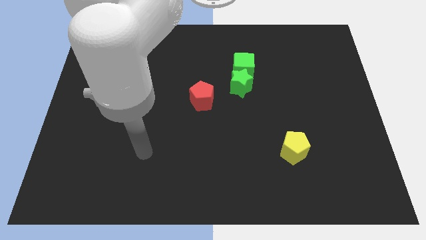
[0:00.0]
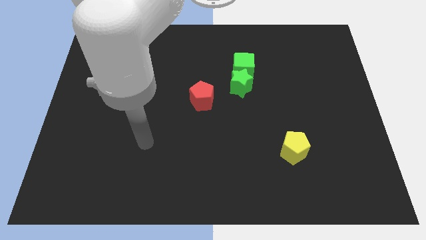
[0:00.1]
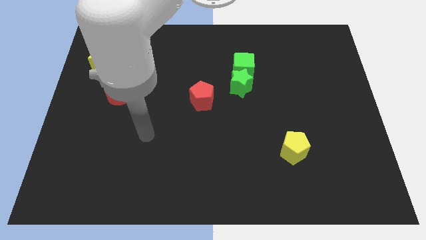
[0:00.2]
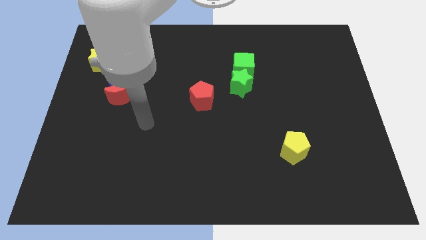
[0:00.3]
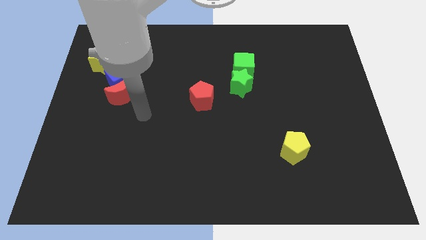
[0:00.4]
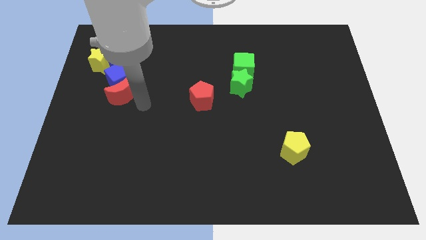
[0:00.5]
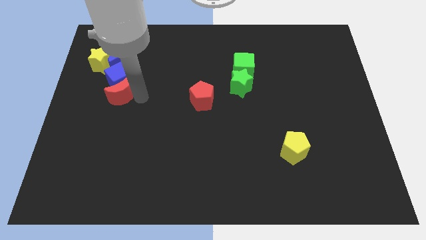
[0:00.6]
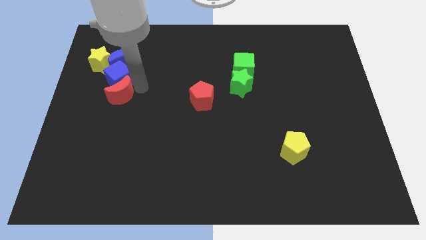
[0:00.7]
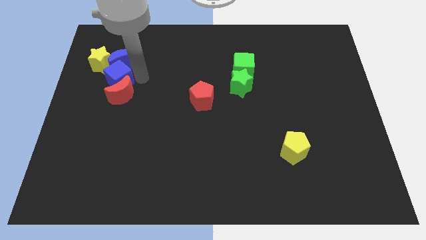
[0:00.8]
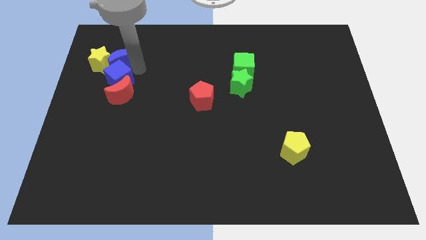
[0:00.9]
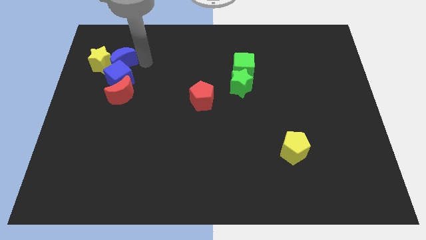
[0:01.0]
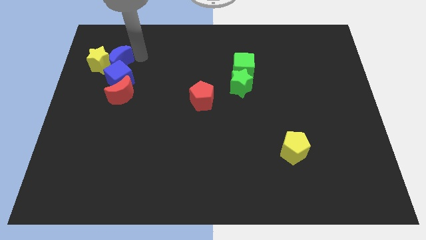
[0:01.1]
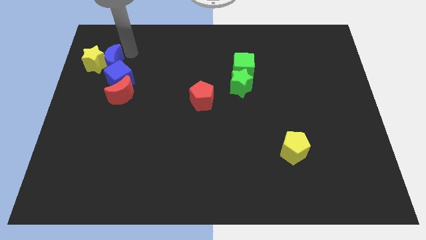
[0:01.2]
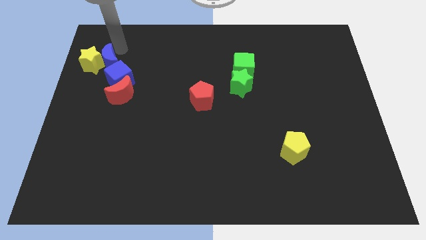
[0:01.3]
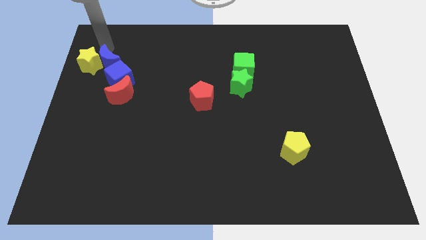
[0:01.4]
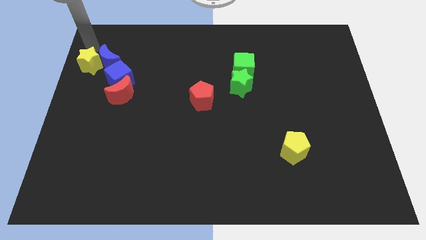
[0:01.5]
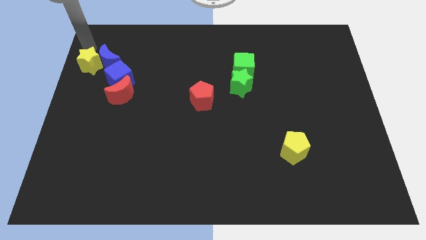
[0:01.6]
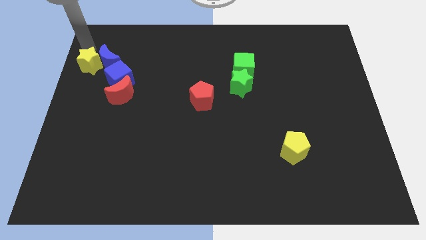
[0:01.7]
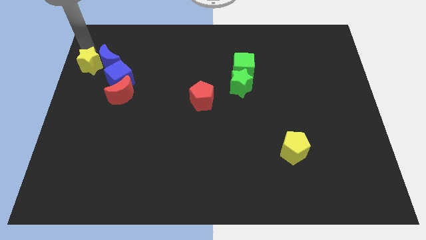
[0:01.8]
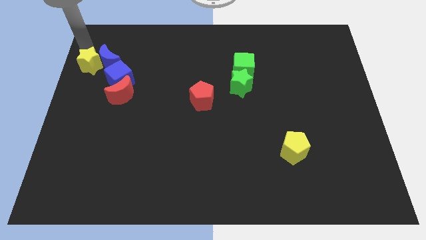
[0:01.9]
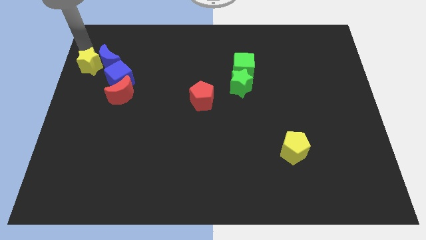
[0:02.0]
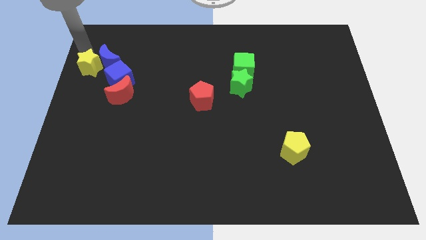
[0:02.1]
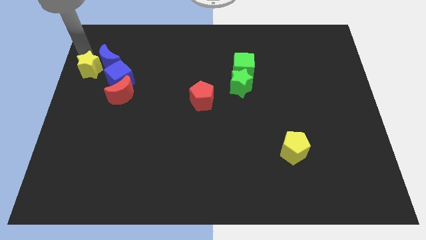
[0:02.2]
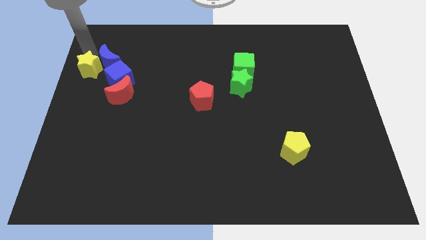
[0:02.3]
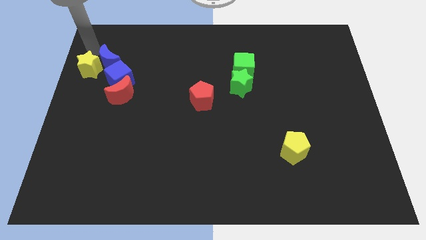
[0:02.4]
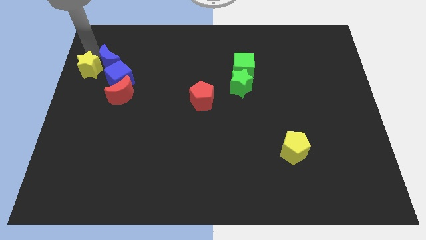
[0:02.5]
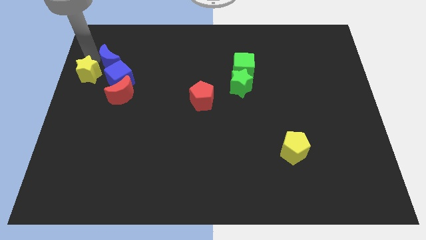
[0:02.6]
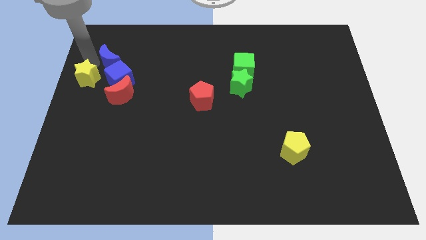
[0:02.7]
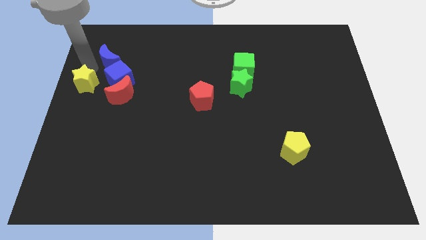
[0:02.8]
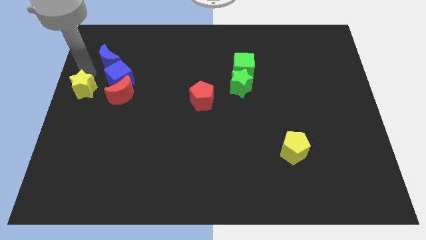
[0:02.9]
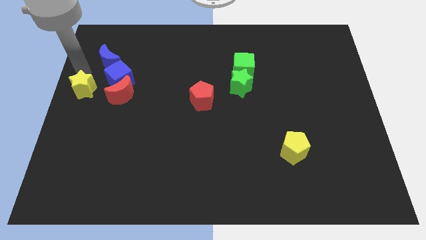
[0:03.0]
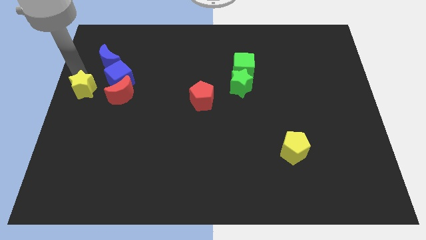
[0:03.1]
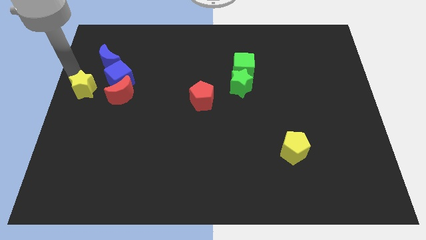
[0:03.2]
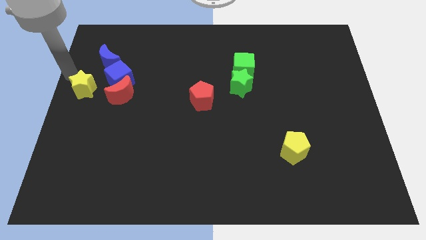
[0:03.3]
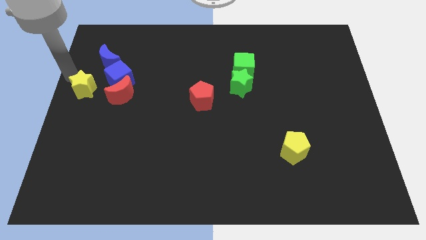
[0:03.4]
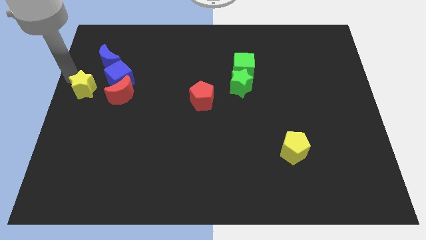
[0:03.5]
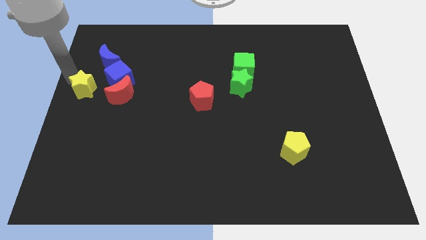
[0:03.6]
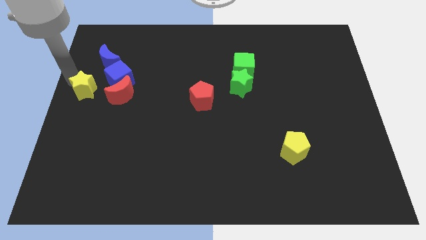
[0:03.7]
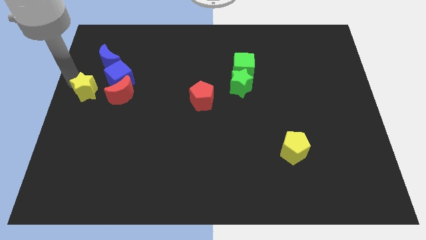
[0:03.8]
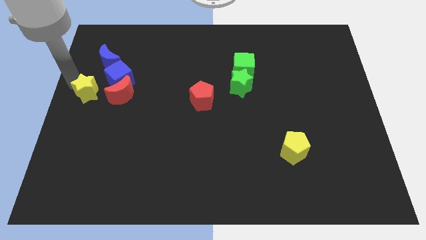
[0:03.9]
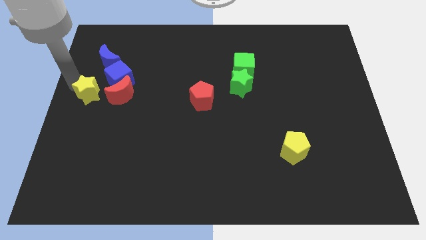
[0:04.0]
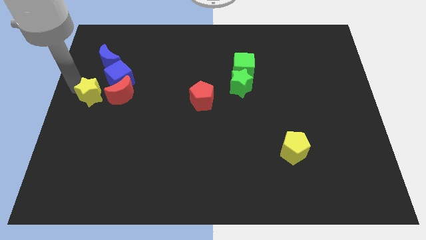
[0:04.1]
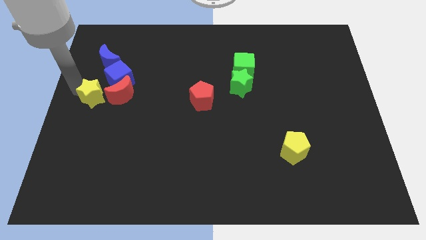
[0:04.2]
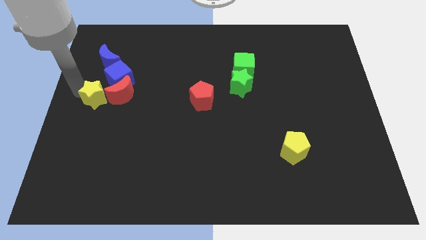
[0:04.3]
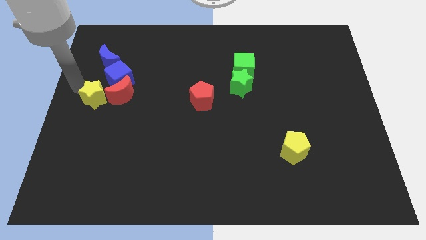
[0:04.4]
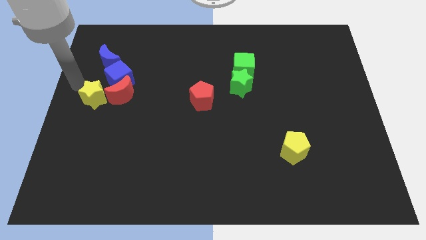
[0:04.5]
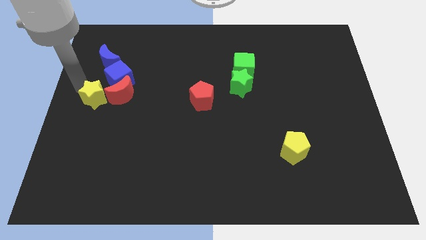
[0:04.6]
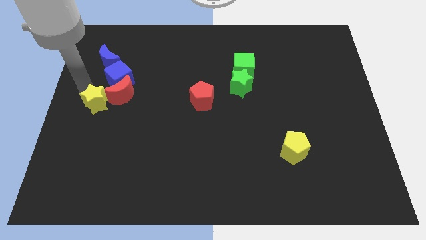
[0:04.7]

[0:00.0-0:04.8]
slide the yellow star a little downwards and right

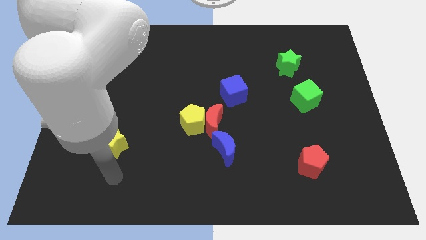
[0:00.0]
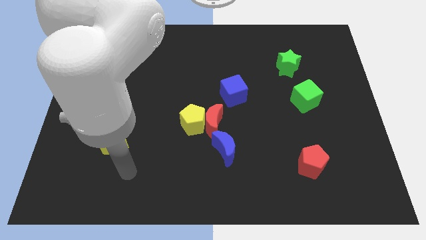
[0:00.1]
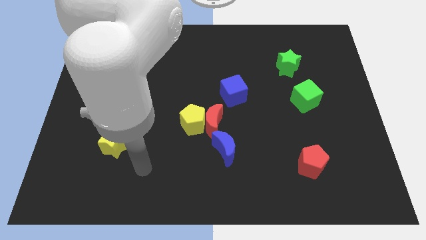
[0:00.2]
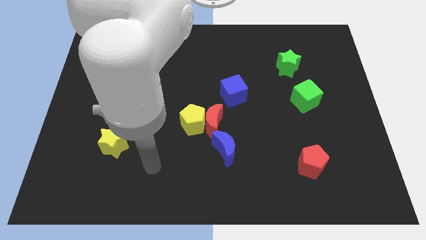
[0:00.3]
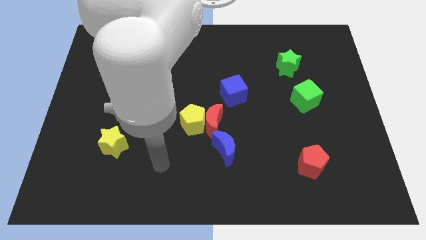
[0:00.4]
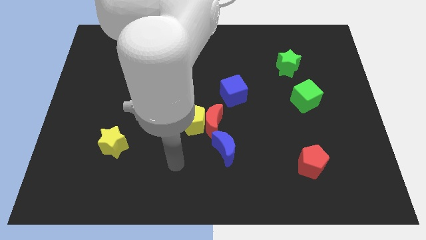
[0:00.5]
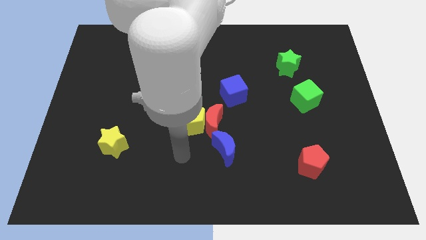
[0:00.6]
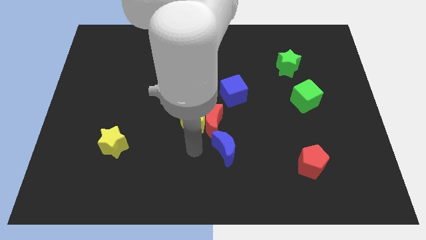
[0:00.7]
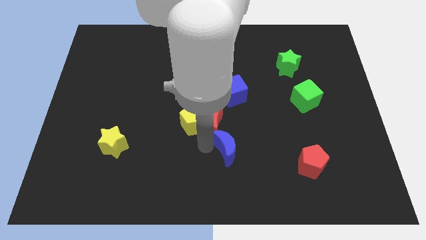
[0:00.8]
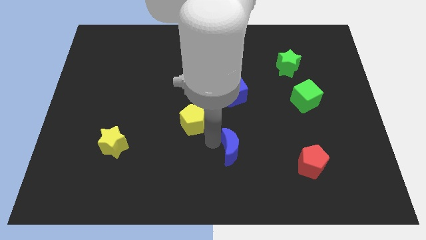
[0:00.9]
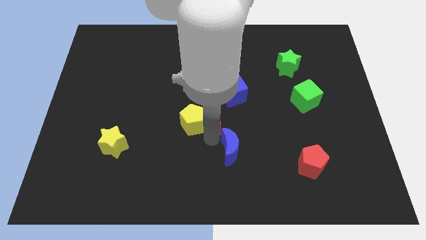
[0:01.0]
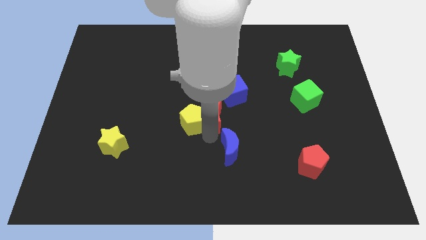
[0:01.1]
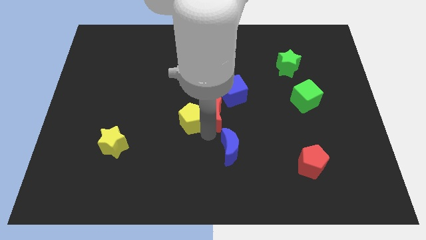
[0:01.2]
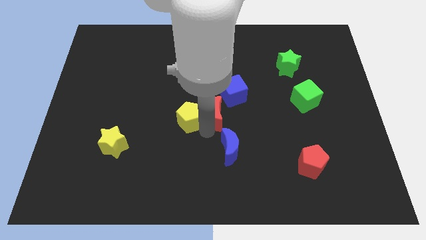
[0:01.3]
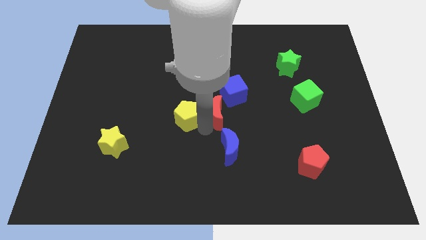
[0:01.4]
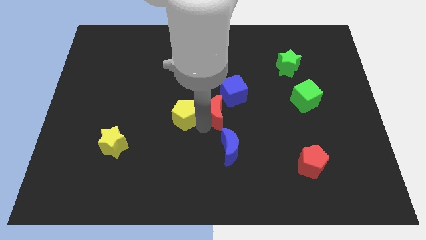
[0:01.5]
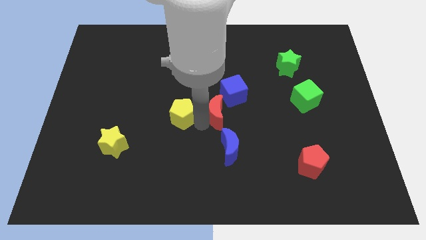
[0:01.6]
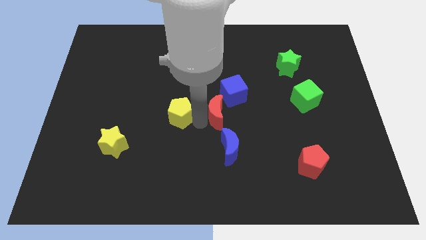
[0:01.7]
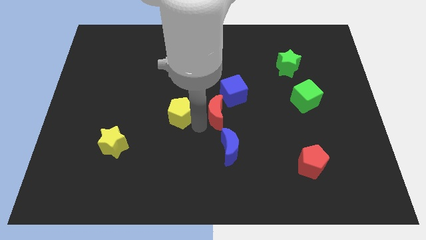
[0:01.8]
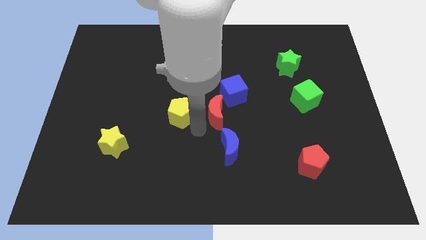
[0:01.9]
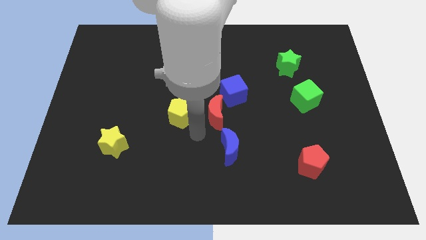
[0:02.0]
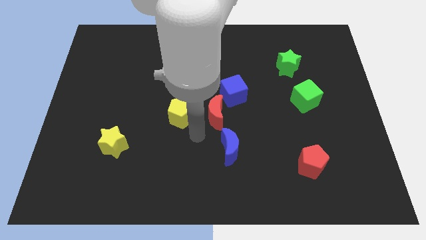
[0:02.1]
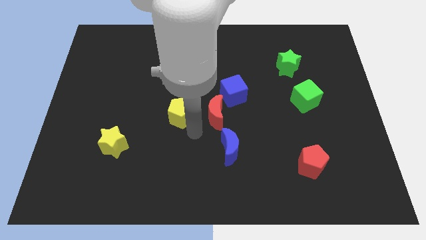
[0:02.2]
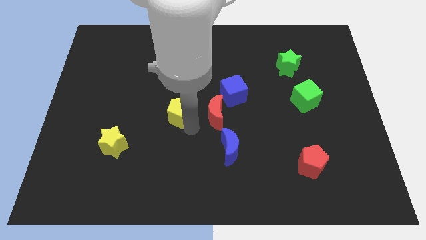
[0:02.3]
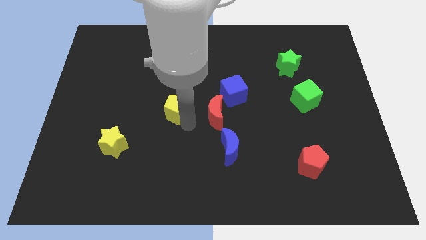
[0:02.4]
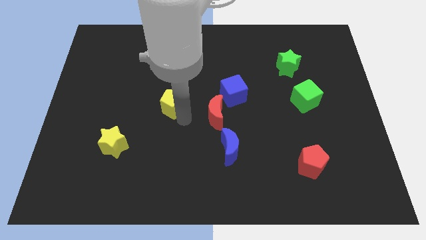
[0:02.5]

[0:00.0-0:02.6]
move the yellow pentagon upwards and left slightly

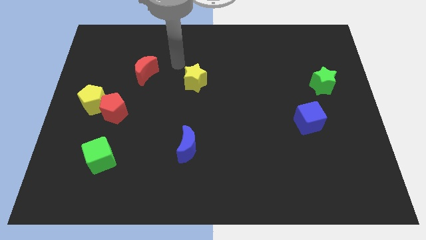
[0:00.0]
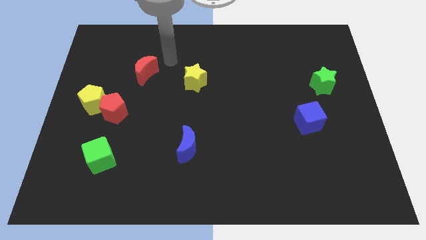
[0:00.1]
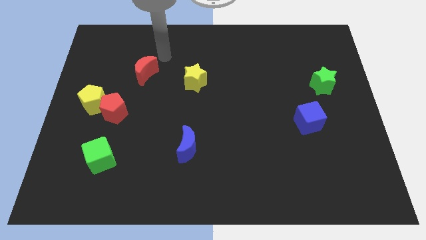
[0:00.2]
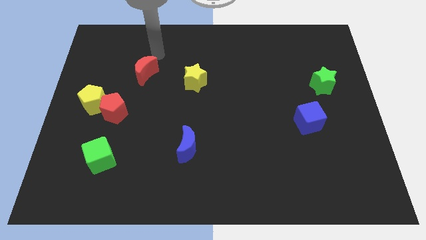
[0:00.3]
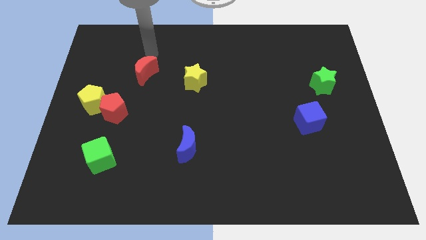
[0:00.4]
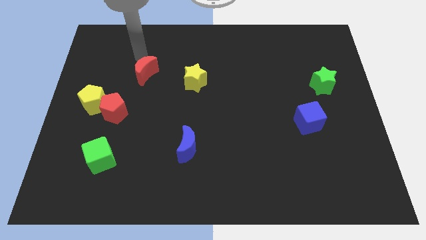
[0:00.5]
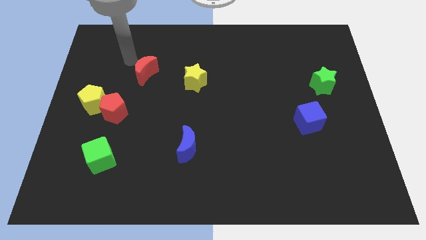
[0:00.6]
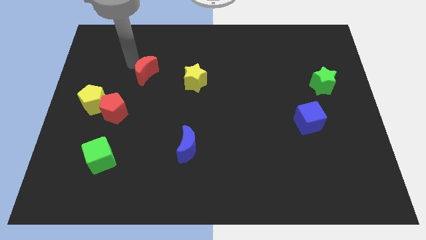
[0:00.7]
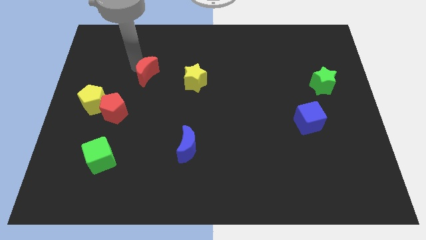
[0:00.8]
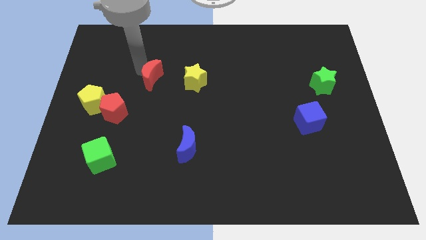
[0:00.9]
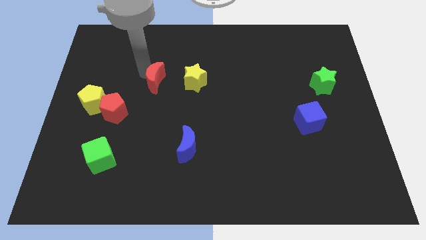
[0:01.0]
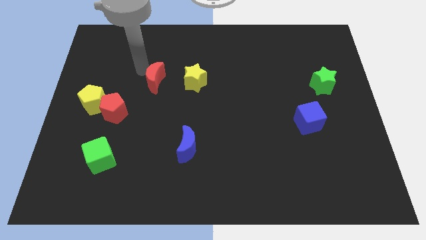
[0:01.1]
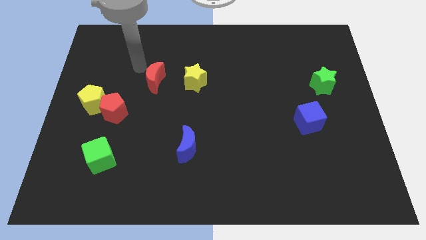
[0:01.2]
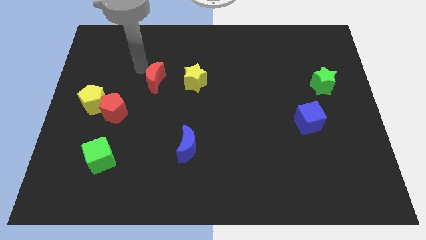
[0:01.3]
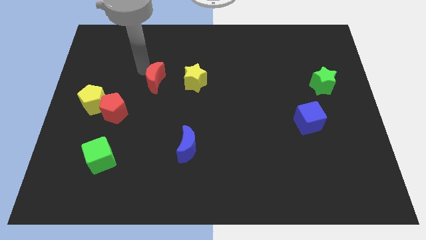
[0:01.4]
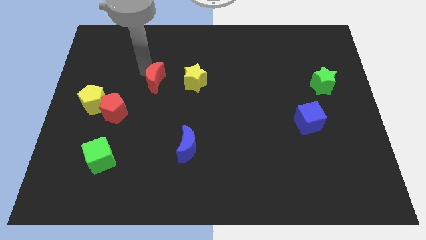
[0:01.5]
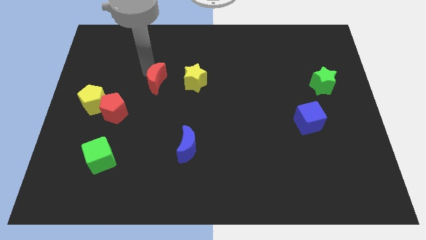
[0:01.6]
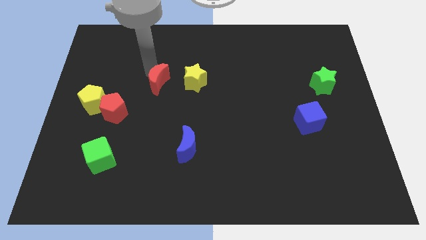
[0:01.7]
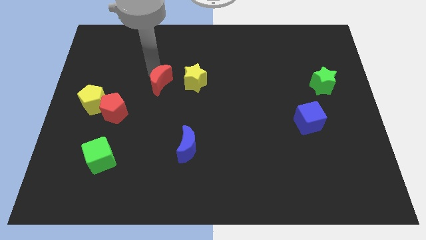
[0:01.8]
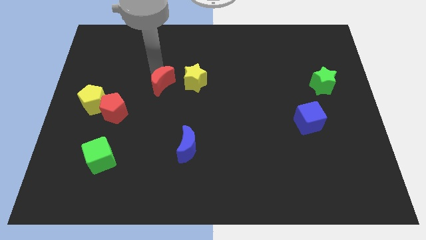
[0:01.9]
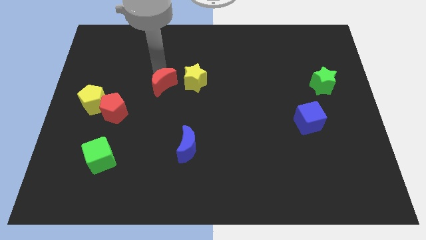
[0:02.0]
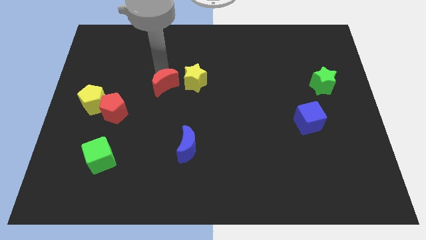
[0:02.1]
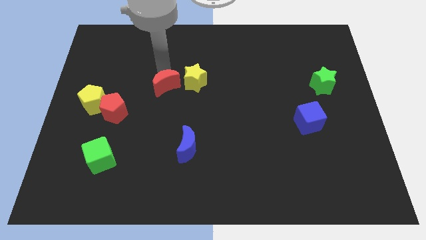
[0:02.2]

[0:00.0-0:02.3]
slide the red moon downwards and then to the right slightly
